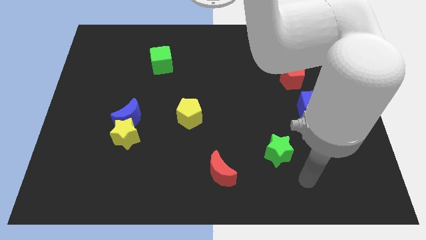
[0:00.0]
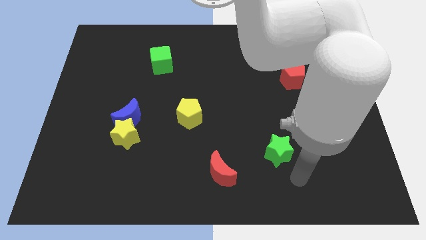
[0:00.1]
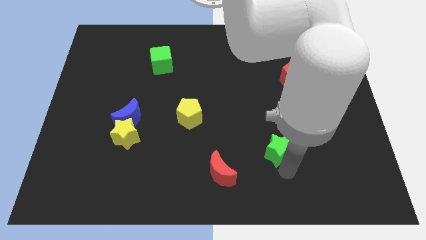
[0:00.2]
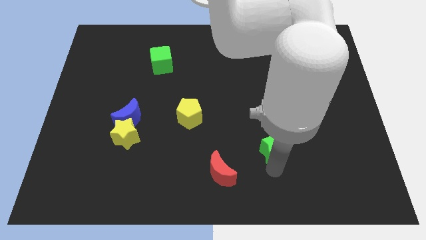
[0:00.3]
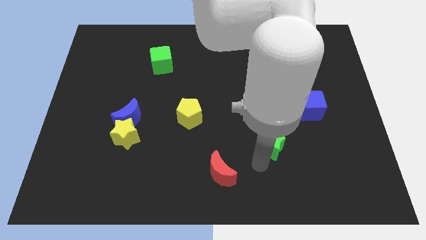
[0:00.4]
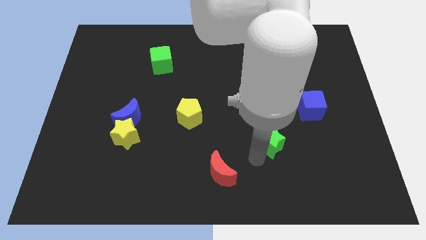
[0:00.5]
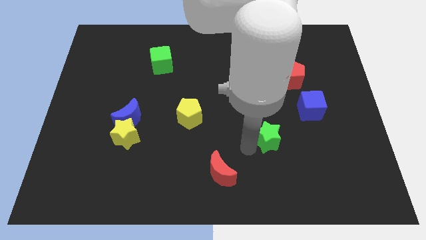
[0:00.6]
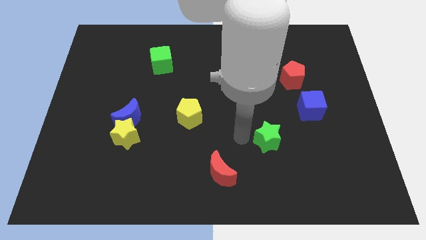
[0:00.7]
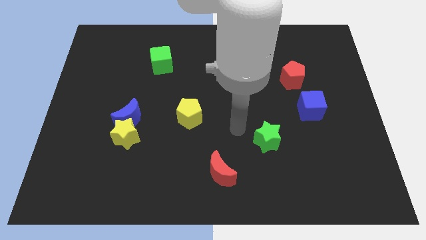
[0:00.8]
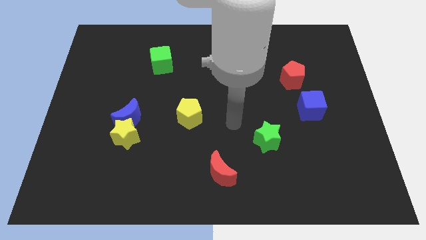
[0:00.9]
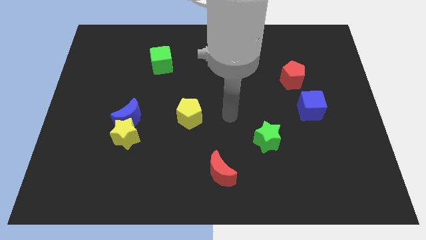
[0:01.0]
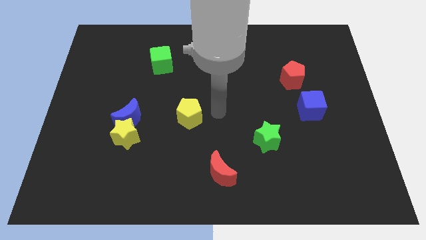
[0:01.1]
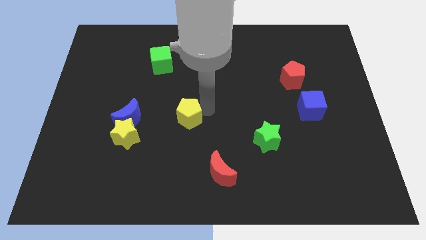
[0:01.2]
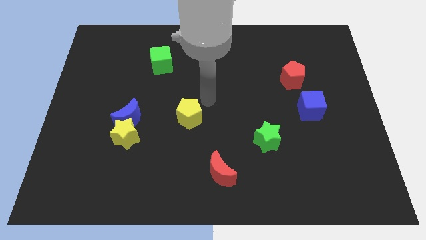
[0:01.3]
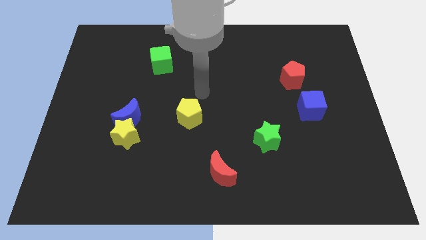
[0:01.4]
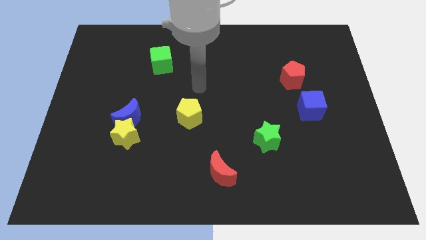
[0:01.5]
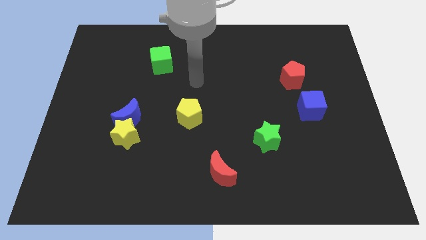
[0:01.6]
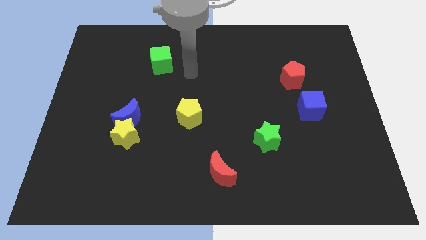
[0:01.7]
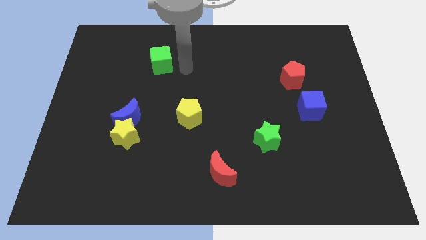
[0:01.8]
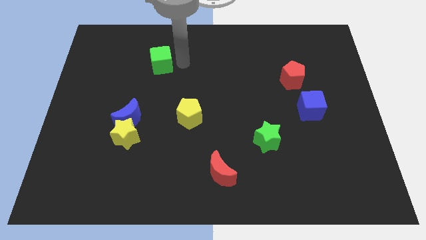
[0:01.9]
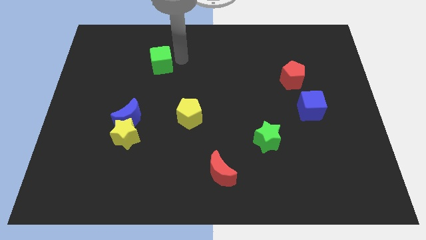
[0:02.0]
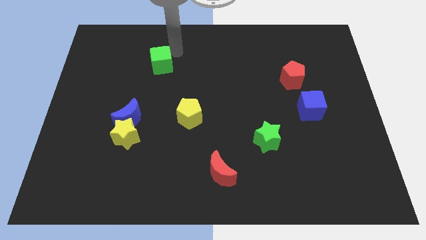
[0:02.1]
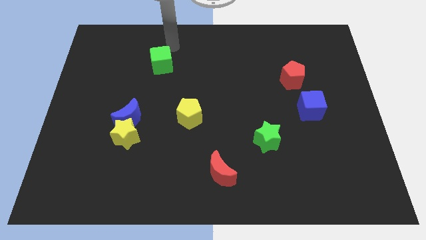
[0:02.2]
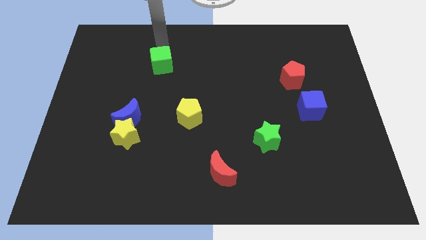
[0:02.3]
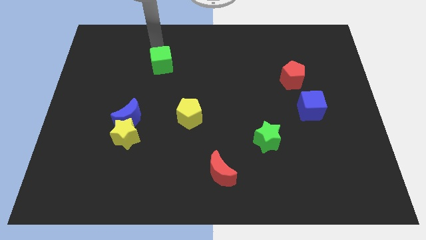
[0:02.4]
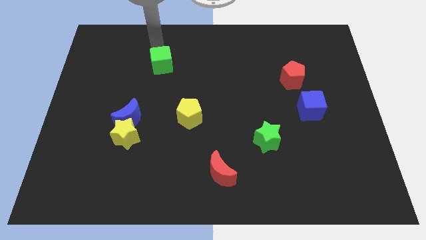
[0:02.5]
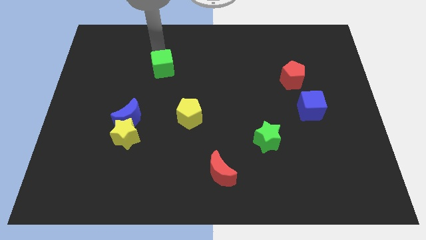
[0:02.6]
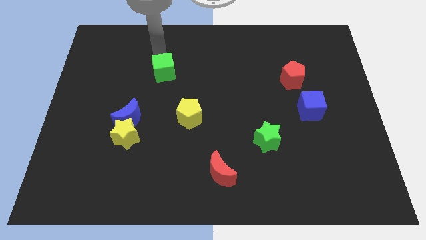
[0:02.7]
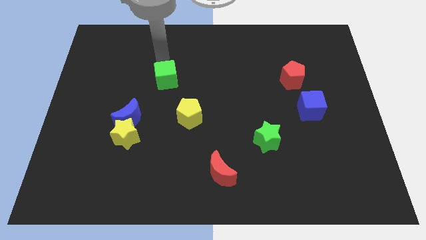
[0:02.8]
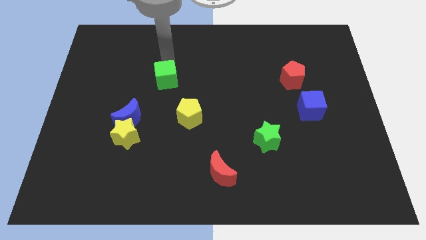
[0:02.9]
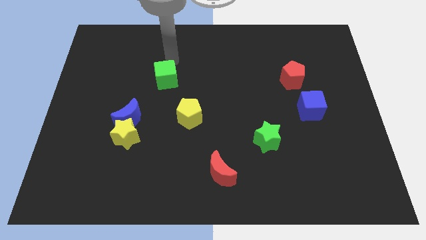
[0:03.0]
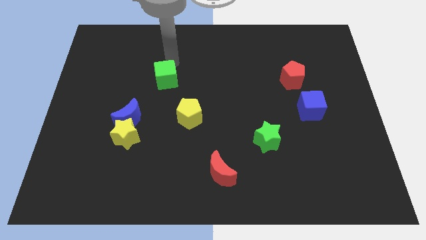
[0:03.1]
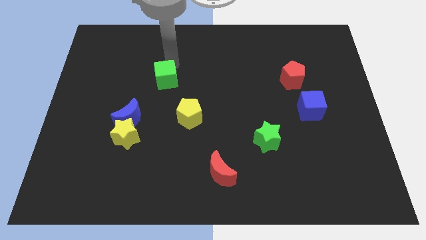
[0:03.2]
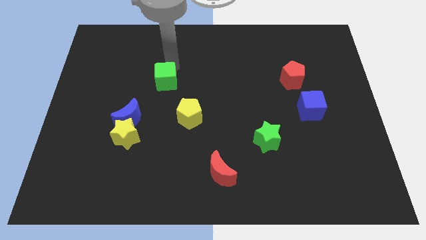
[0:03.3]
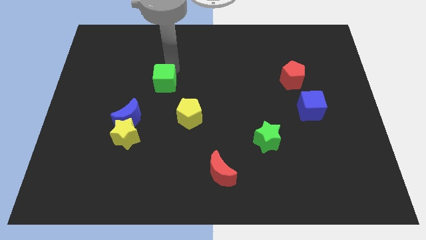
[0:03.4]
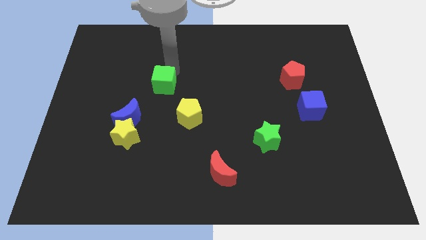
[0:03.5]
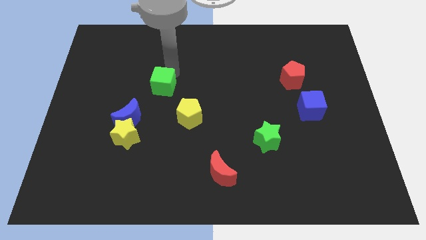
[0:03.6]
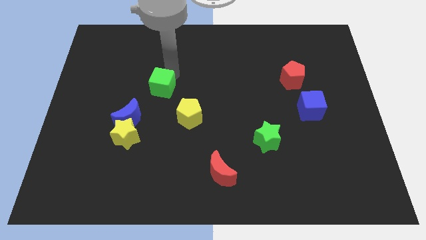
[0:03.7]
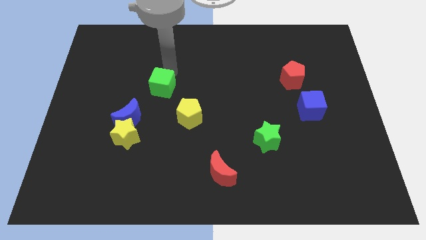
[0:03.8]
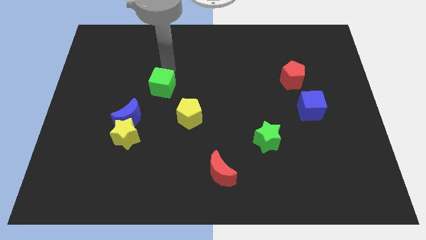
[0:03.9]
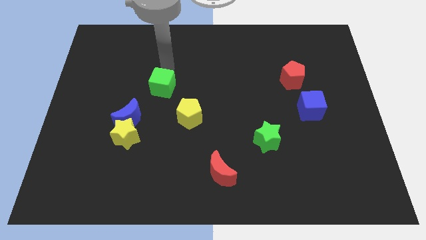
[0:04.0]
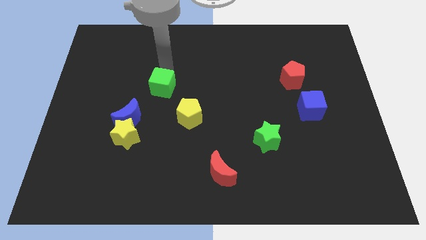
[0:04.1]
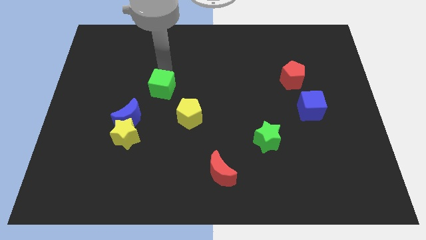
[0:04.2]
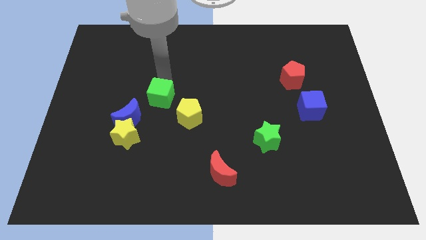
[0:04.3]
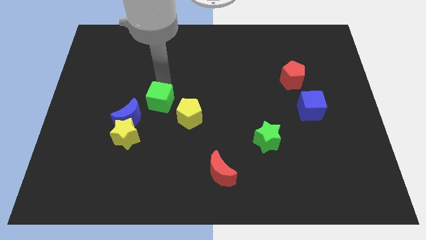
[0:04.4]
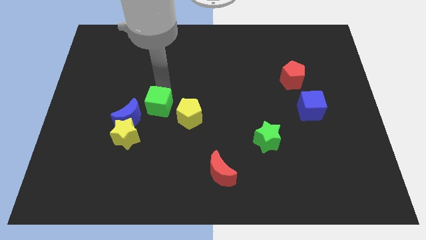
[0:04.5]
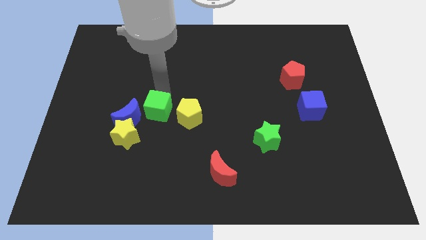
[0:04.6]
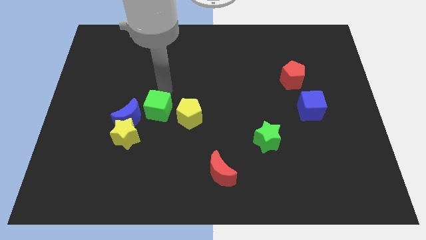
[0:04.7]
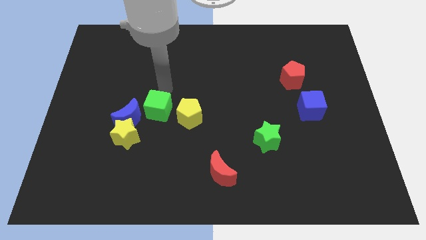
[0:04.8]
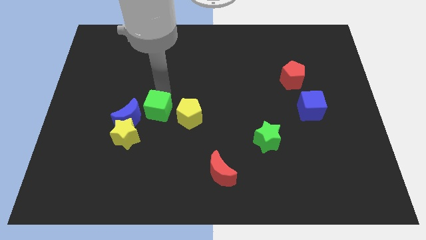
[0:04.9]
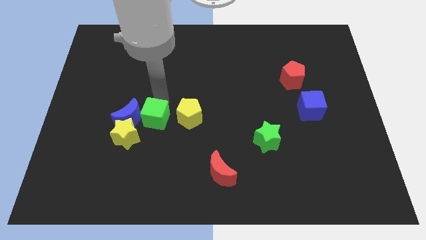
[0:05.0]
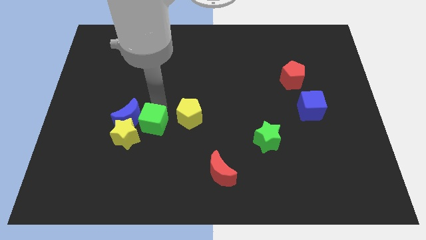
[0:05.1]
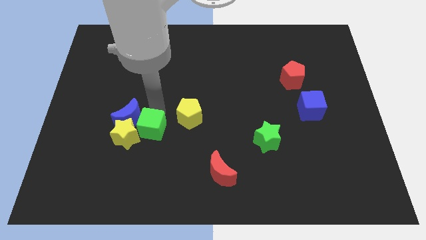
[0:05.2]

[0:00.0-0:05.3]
slide the green cube down

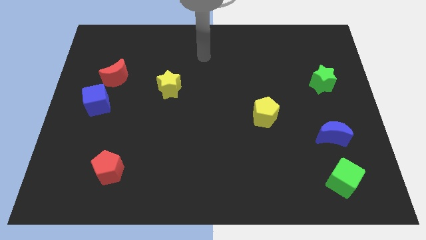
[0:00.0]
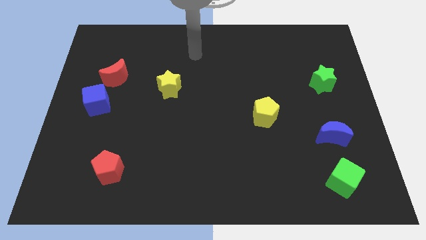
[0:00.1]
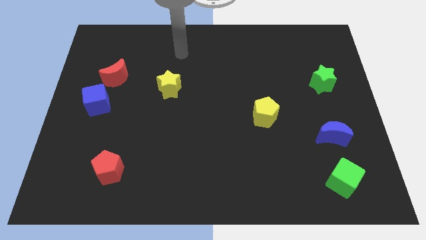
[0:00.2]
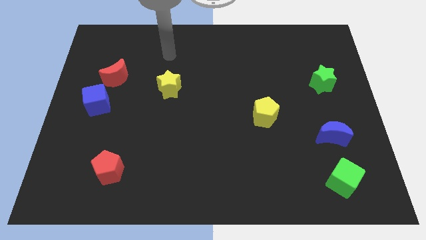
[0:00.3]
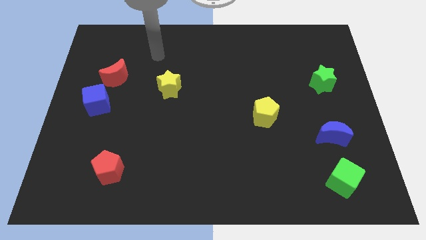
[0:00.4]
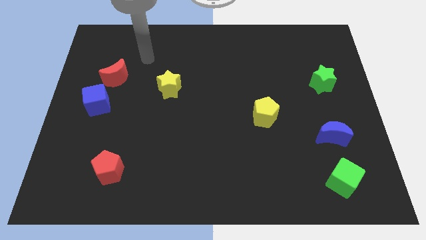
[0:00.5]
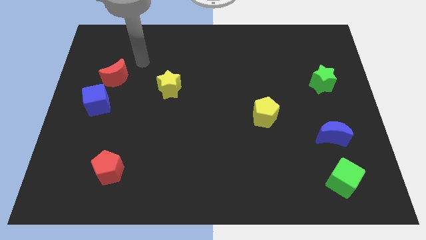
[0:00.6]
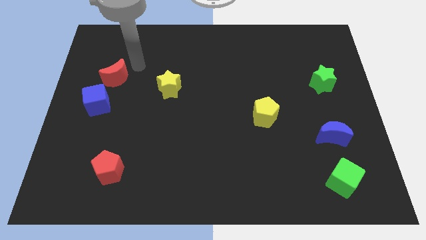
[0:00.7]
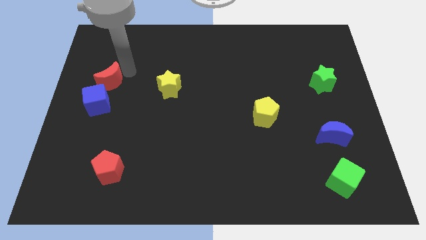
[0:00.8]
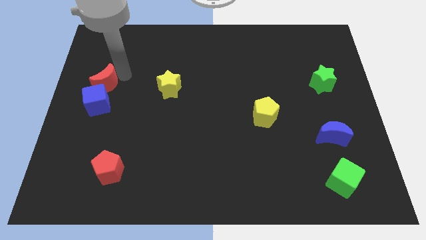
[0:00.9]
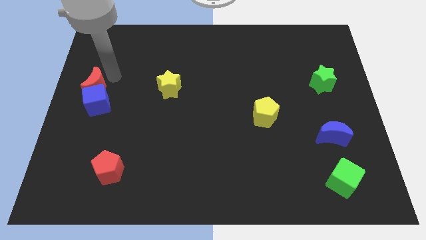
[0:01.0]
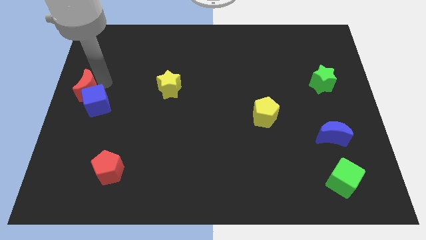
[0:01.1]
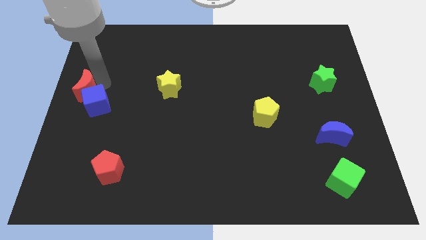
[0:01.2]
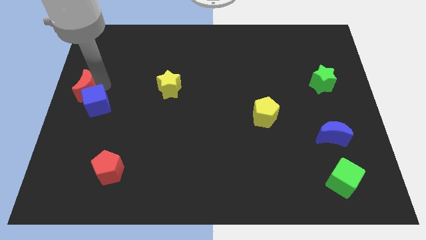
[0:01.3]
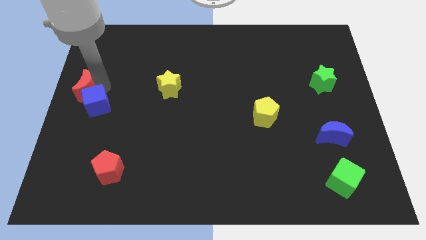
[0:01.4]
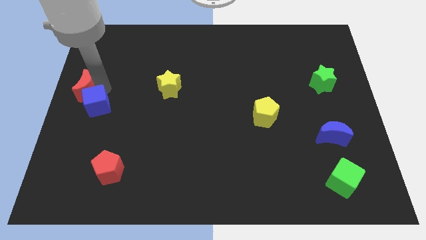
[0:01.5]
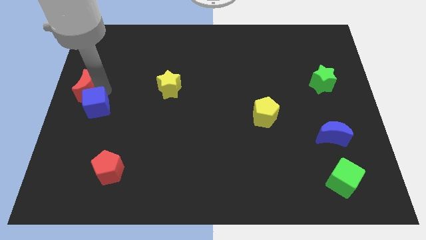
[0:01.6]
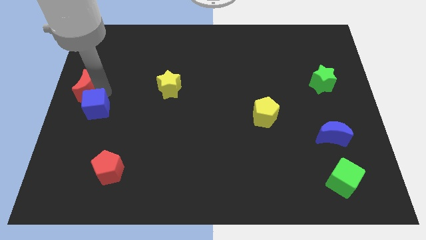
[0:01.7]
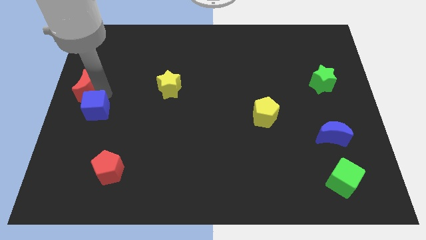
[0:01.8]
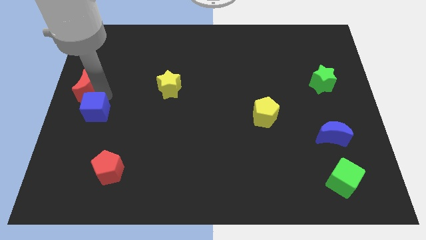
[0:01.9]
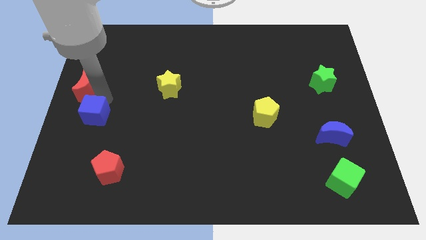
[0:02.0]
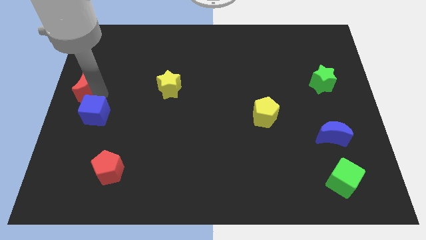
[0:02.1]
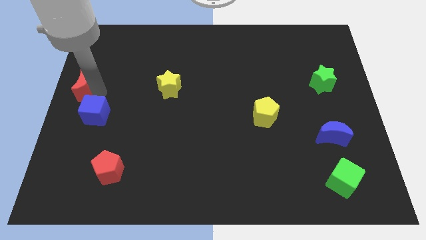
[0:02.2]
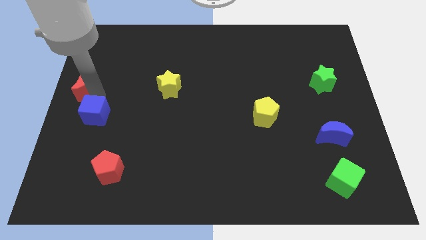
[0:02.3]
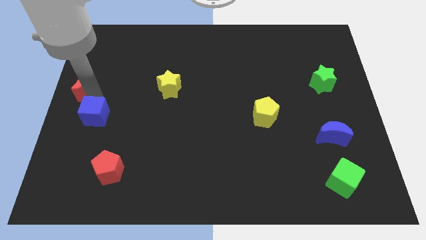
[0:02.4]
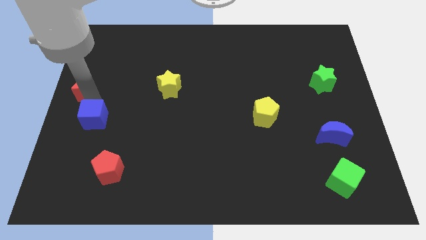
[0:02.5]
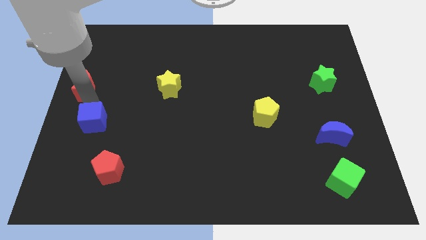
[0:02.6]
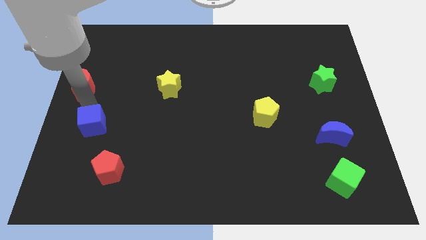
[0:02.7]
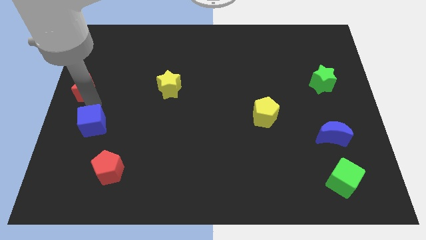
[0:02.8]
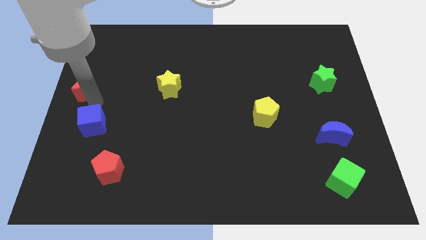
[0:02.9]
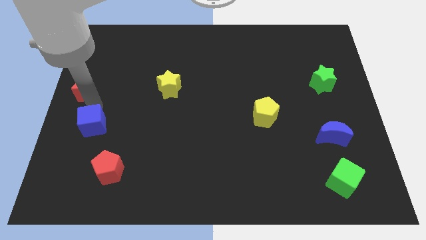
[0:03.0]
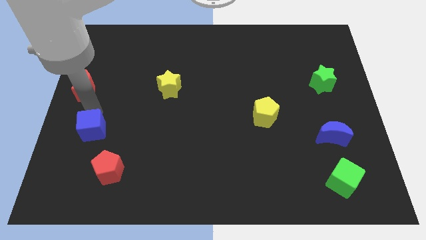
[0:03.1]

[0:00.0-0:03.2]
move the blue cube a little down
